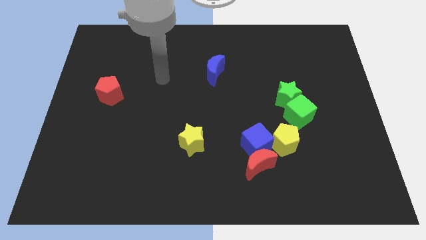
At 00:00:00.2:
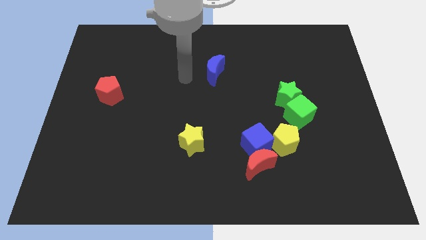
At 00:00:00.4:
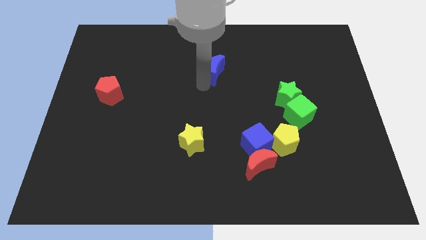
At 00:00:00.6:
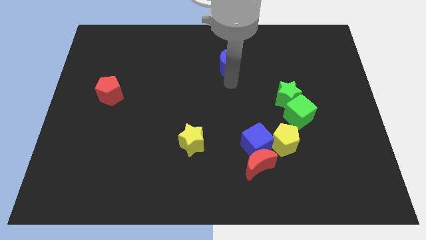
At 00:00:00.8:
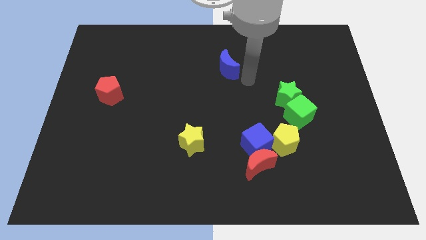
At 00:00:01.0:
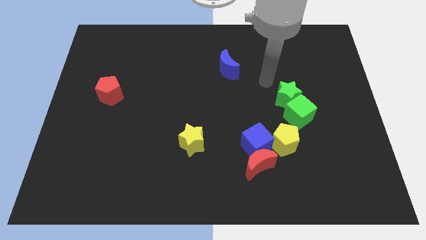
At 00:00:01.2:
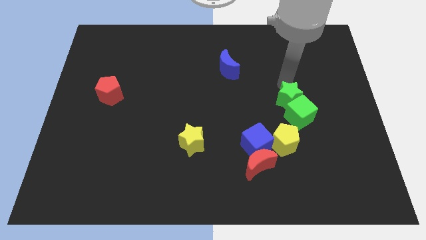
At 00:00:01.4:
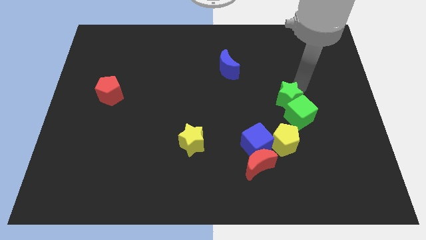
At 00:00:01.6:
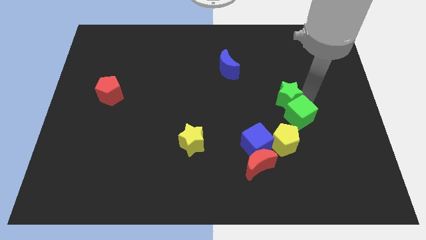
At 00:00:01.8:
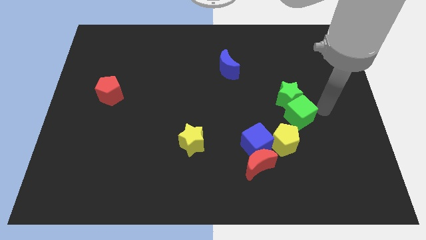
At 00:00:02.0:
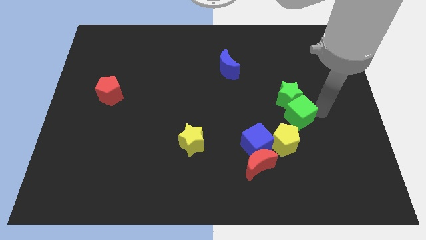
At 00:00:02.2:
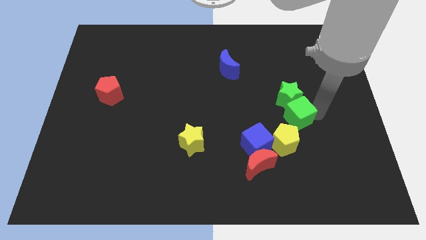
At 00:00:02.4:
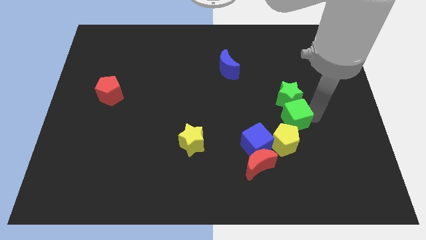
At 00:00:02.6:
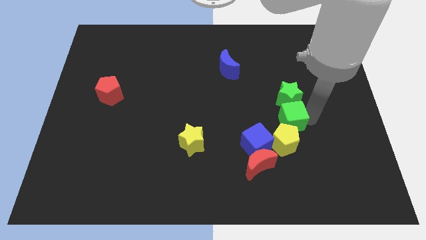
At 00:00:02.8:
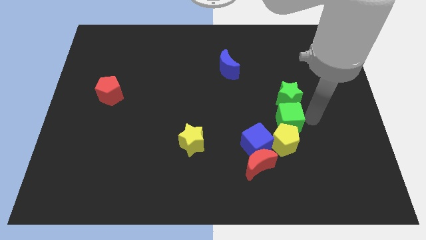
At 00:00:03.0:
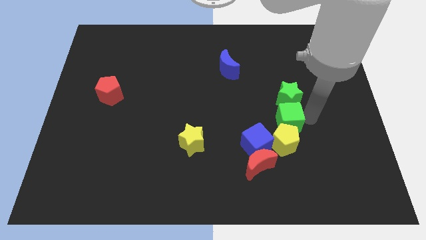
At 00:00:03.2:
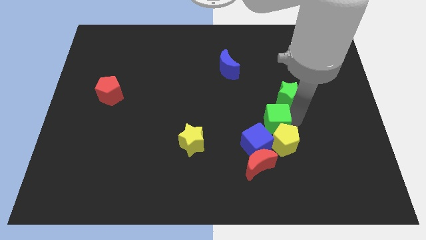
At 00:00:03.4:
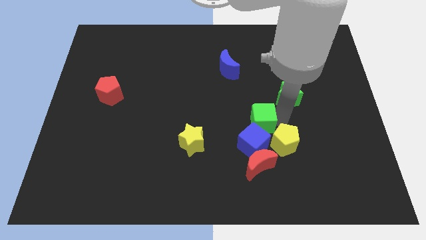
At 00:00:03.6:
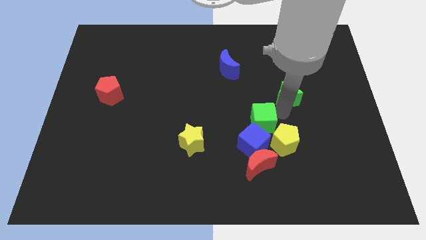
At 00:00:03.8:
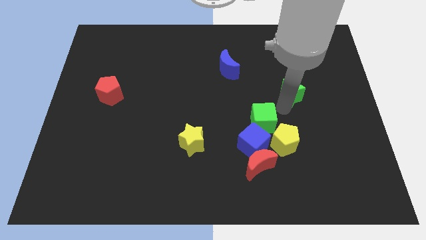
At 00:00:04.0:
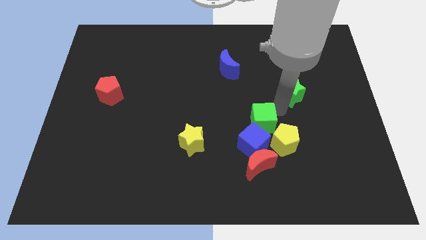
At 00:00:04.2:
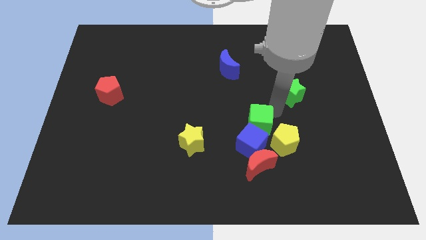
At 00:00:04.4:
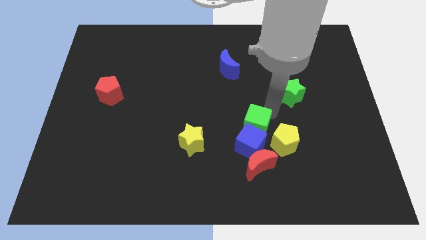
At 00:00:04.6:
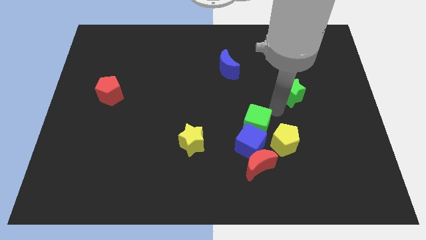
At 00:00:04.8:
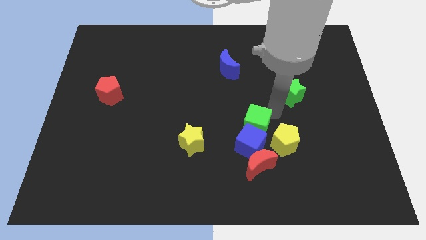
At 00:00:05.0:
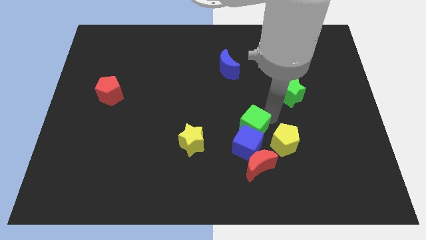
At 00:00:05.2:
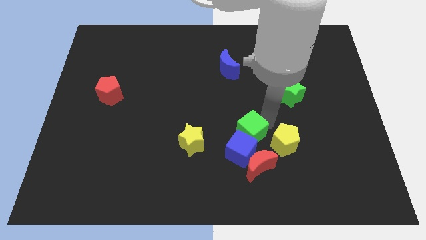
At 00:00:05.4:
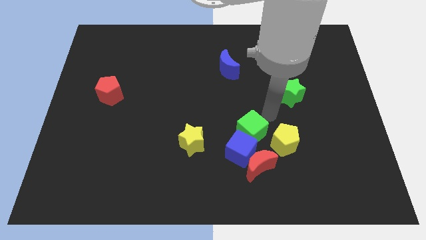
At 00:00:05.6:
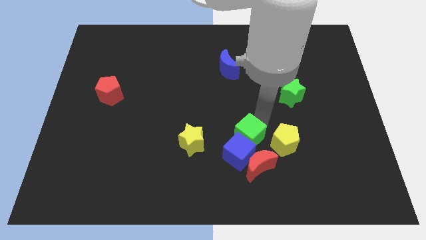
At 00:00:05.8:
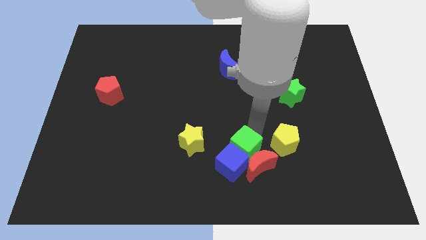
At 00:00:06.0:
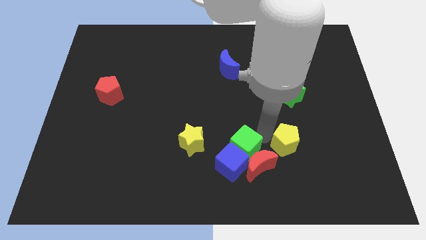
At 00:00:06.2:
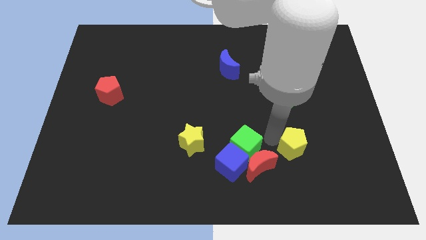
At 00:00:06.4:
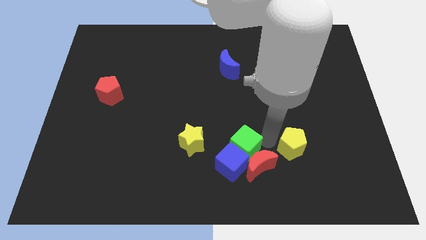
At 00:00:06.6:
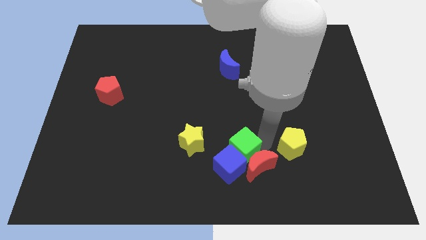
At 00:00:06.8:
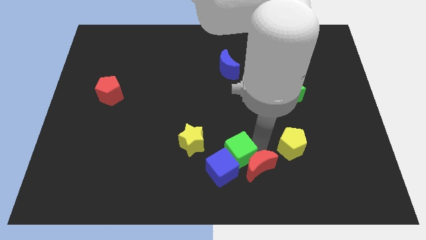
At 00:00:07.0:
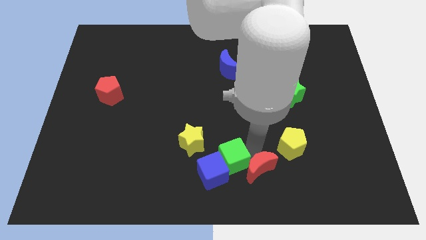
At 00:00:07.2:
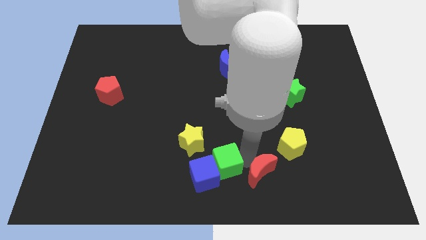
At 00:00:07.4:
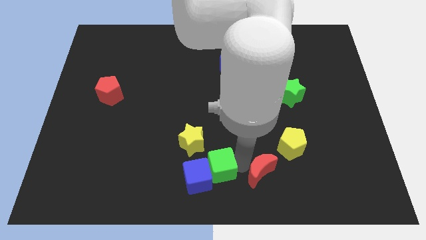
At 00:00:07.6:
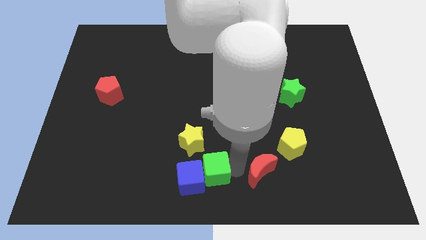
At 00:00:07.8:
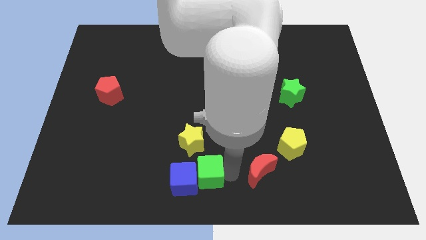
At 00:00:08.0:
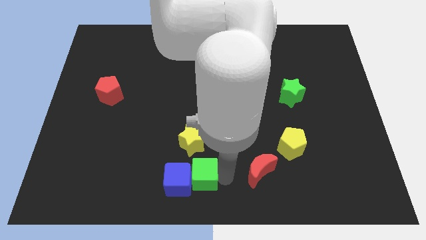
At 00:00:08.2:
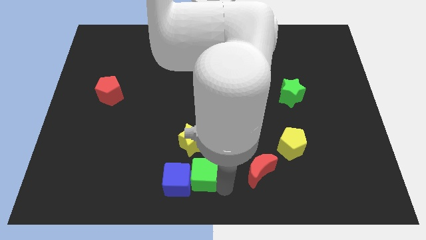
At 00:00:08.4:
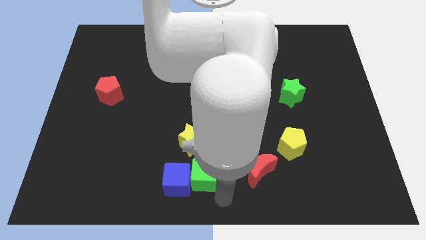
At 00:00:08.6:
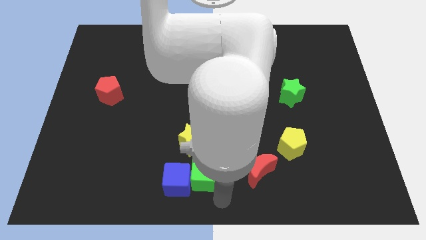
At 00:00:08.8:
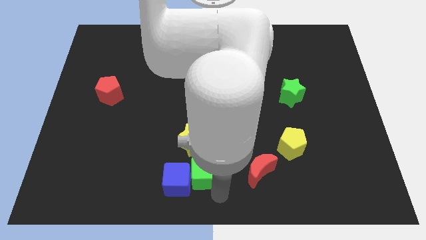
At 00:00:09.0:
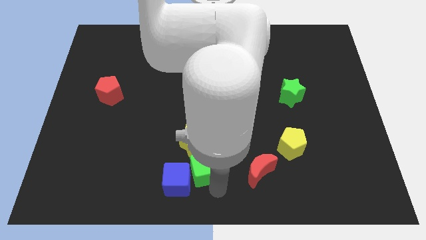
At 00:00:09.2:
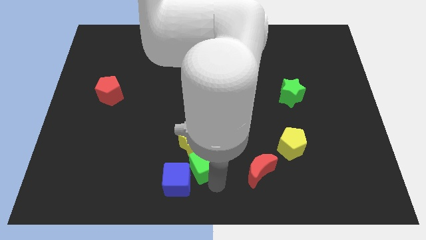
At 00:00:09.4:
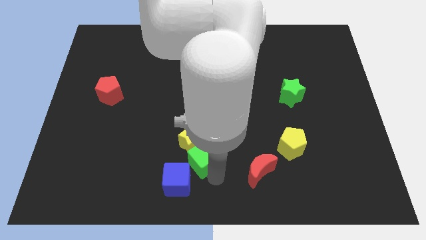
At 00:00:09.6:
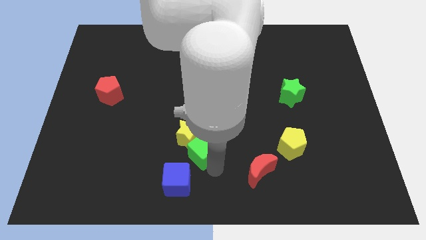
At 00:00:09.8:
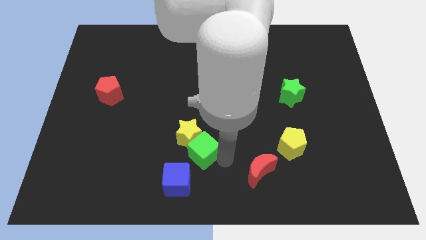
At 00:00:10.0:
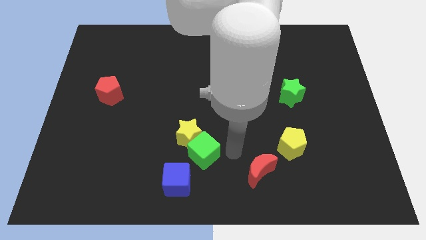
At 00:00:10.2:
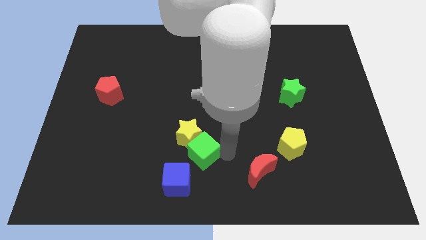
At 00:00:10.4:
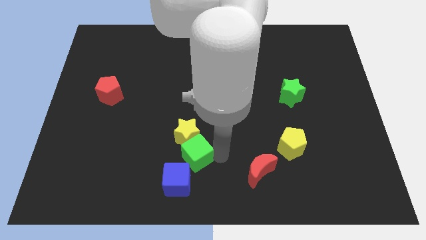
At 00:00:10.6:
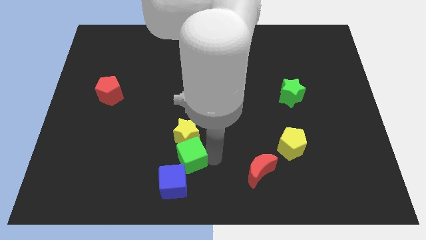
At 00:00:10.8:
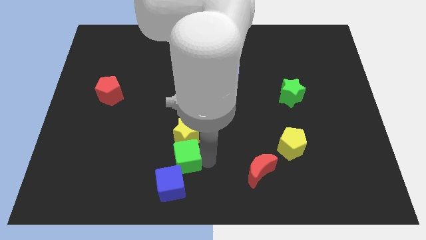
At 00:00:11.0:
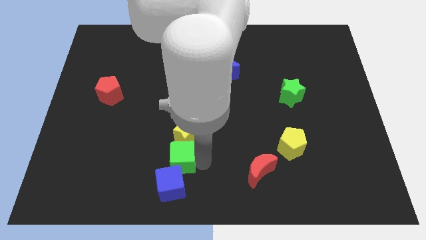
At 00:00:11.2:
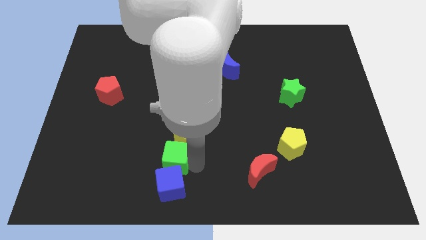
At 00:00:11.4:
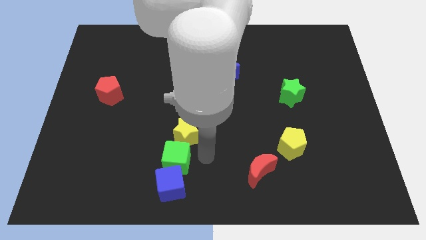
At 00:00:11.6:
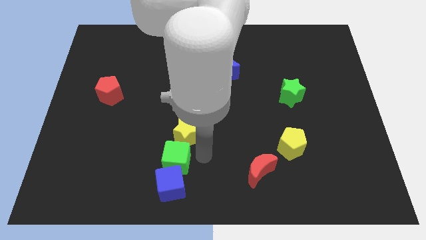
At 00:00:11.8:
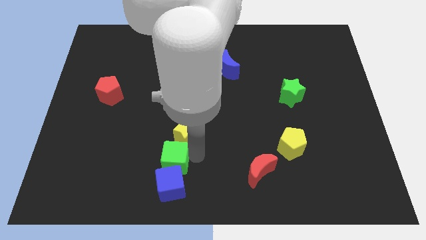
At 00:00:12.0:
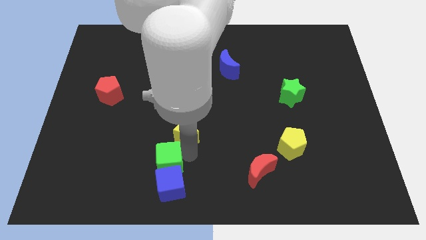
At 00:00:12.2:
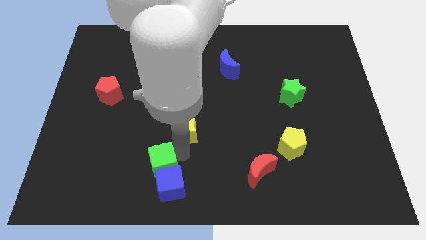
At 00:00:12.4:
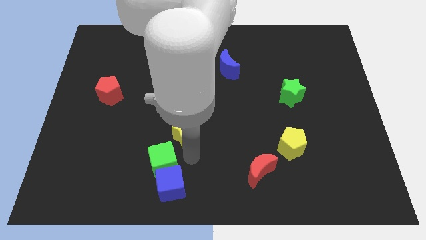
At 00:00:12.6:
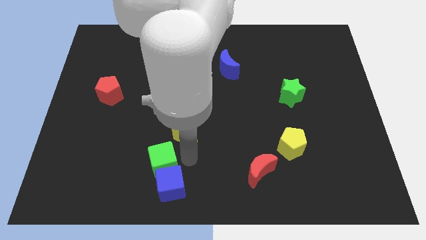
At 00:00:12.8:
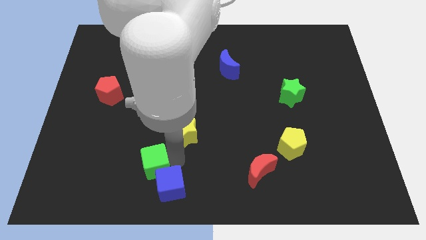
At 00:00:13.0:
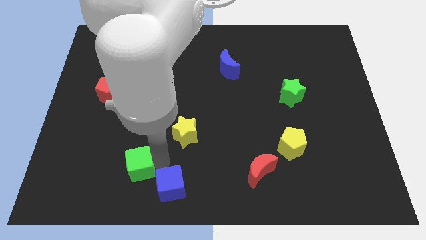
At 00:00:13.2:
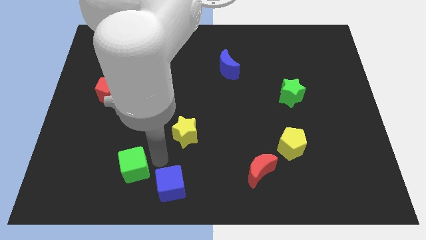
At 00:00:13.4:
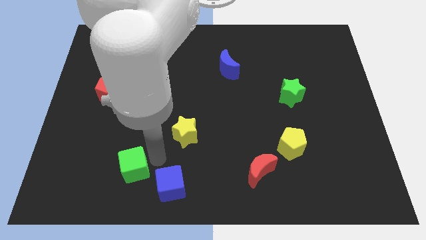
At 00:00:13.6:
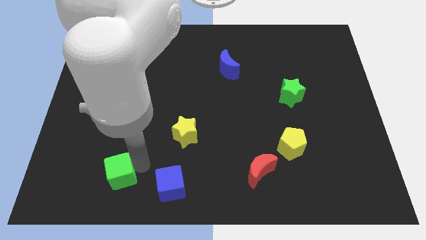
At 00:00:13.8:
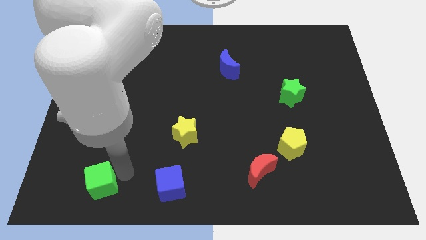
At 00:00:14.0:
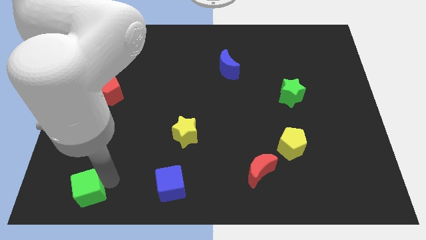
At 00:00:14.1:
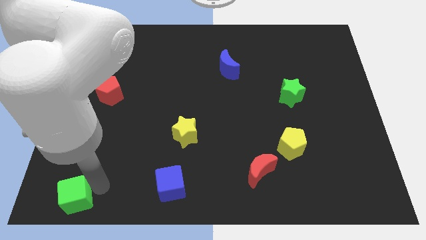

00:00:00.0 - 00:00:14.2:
slide the green cube to the bottom left corner
